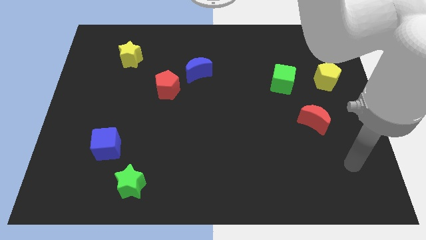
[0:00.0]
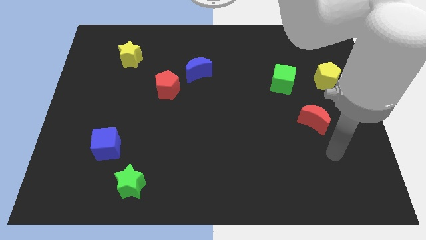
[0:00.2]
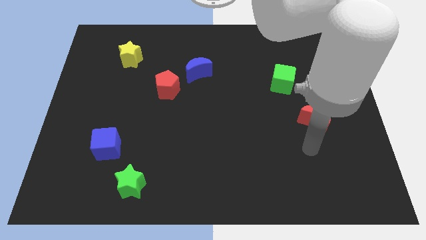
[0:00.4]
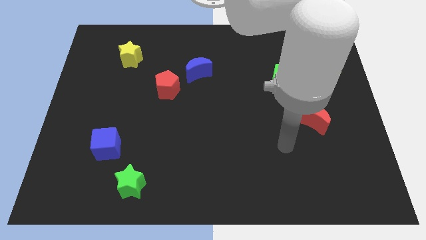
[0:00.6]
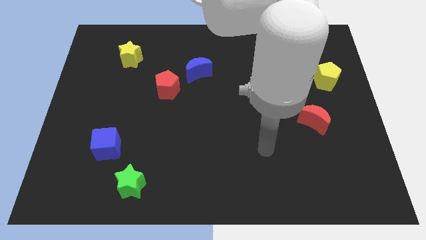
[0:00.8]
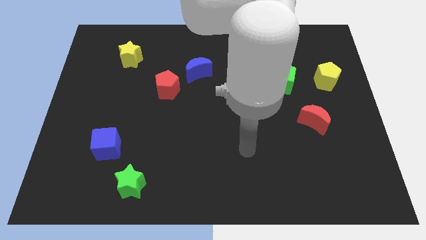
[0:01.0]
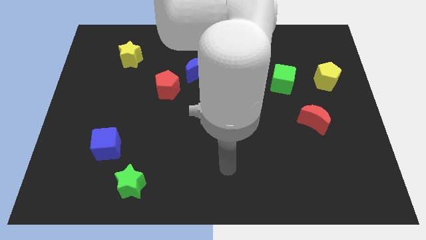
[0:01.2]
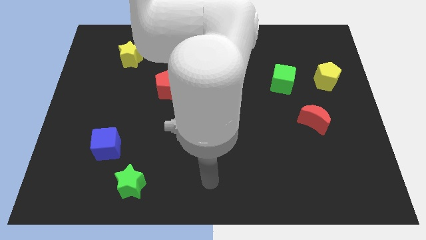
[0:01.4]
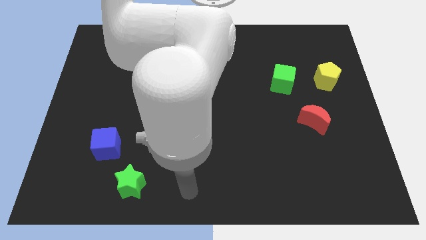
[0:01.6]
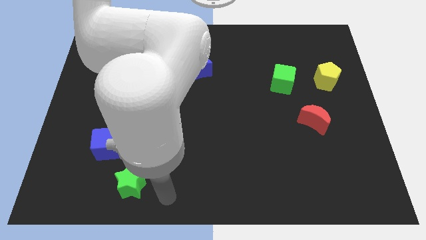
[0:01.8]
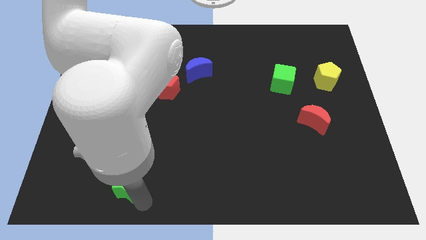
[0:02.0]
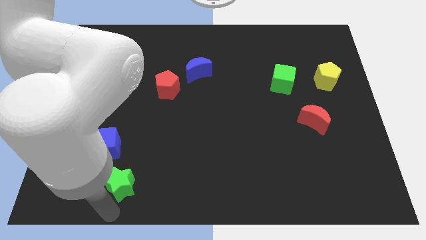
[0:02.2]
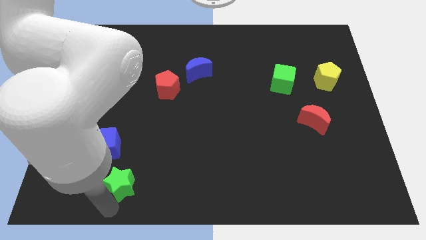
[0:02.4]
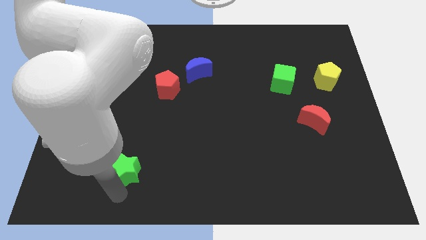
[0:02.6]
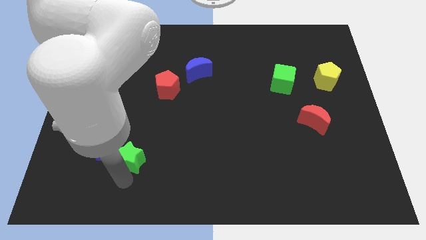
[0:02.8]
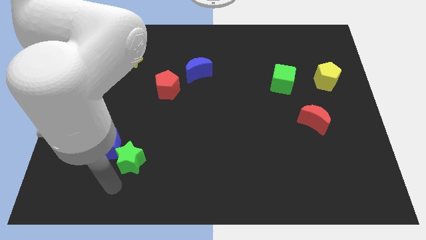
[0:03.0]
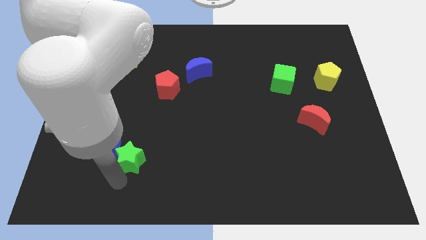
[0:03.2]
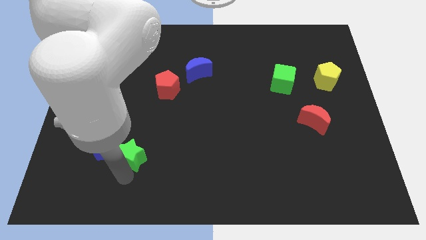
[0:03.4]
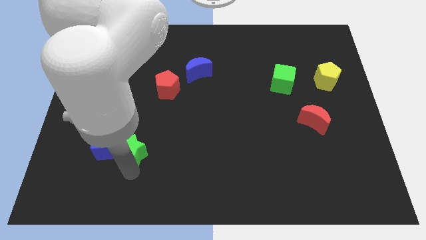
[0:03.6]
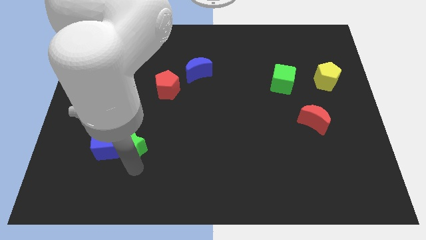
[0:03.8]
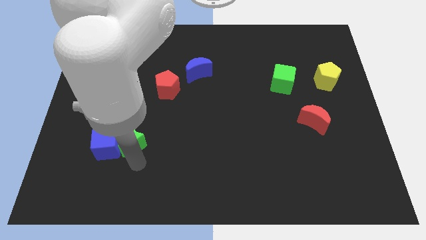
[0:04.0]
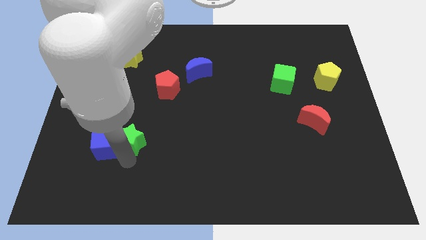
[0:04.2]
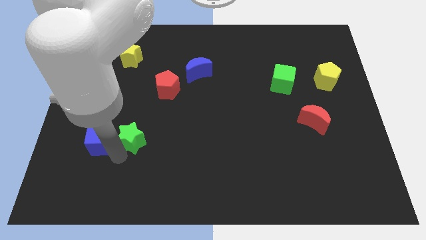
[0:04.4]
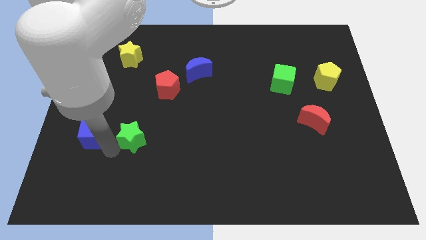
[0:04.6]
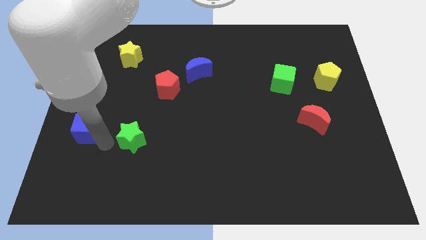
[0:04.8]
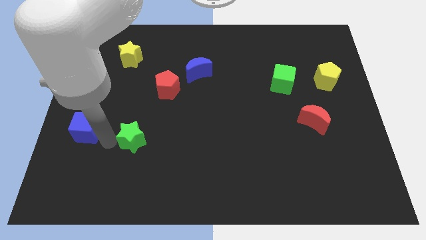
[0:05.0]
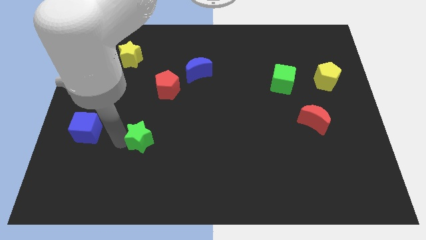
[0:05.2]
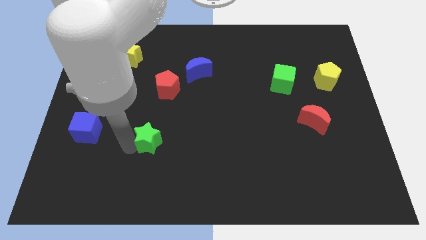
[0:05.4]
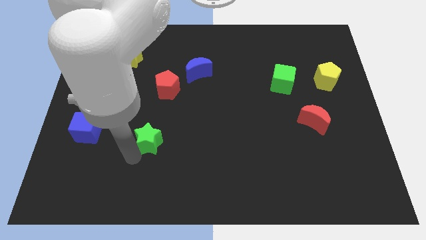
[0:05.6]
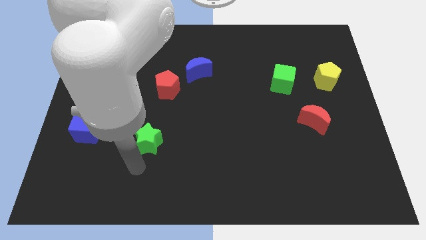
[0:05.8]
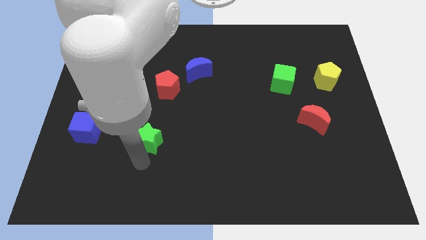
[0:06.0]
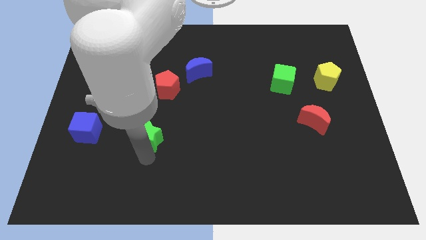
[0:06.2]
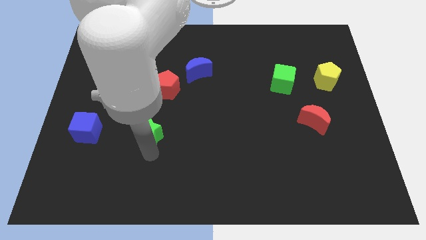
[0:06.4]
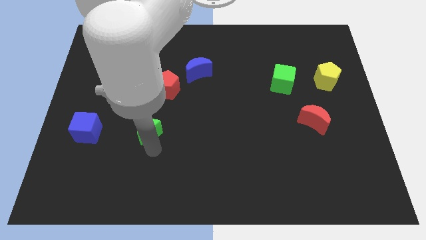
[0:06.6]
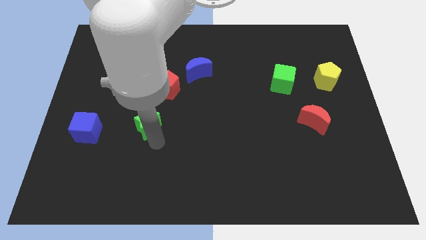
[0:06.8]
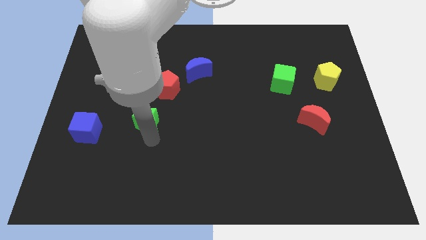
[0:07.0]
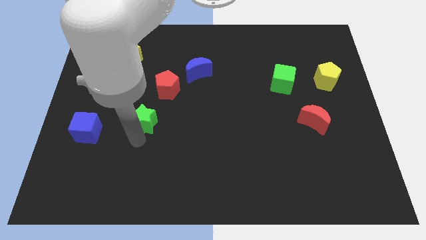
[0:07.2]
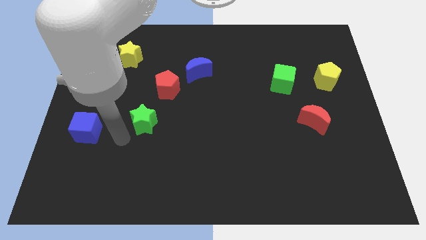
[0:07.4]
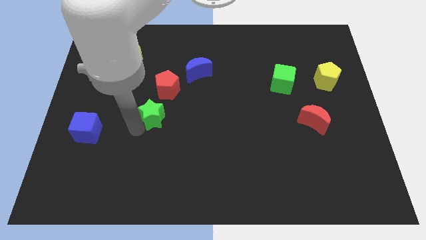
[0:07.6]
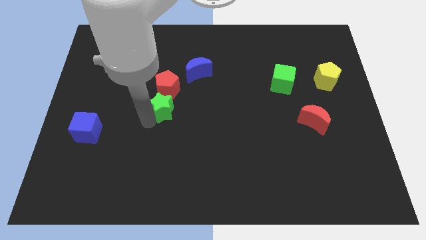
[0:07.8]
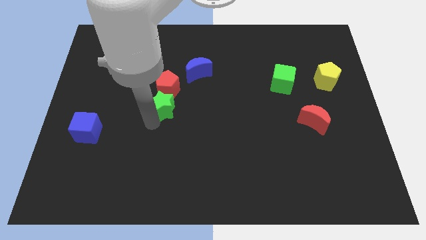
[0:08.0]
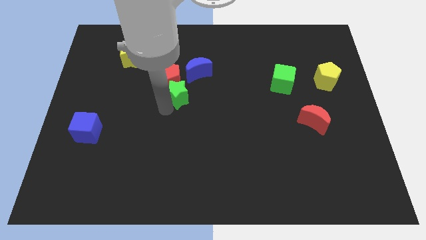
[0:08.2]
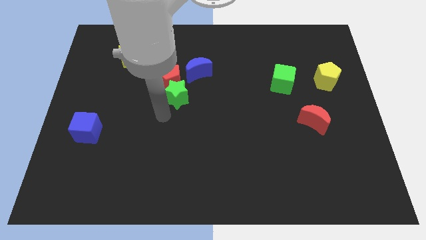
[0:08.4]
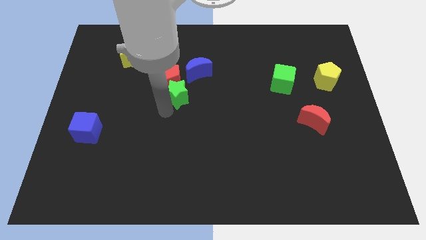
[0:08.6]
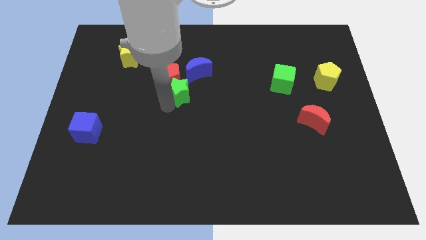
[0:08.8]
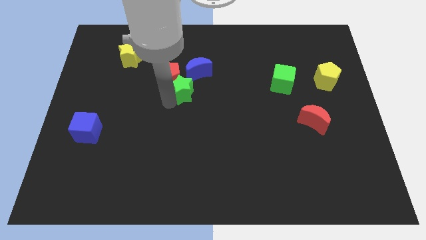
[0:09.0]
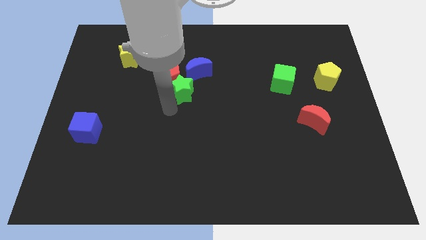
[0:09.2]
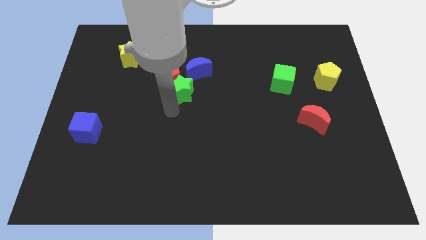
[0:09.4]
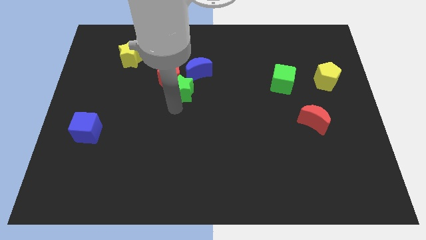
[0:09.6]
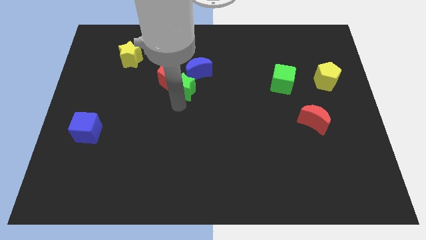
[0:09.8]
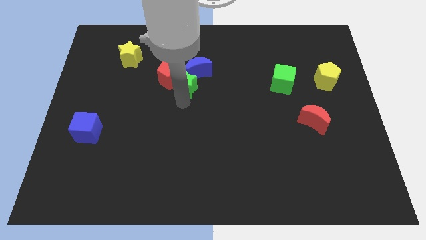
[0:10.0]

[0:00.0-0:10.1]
move the green star next to the blue moon

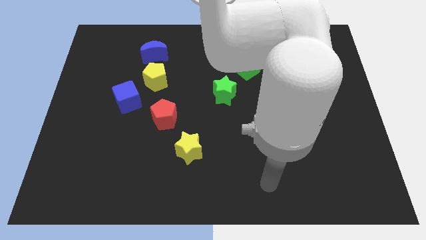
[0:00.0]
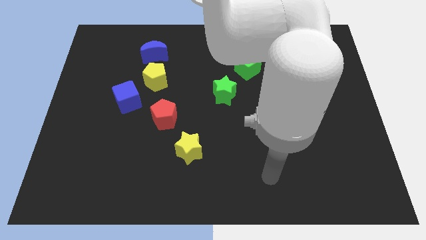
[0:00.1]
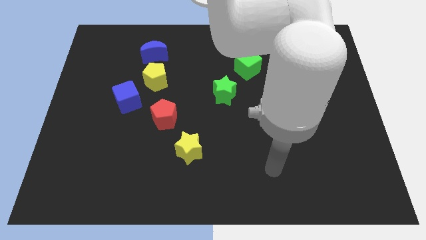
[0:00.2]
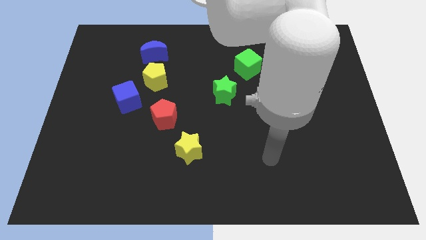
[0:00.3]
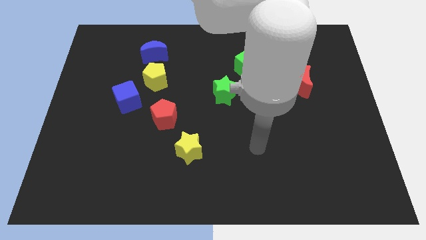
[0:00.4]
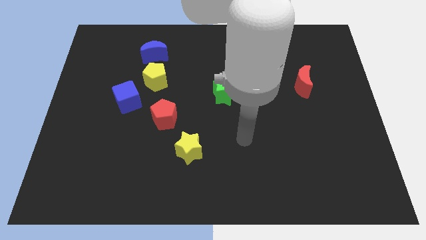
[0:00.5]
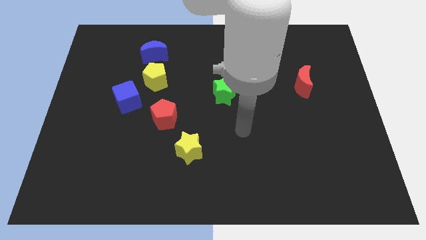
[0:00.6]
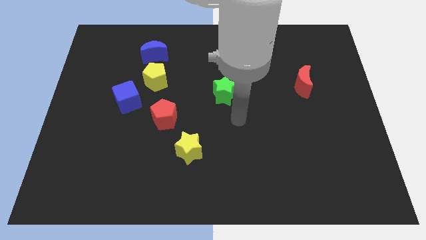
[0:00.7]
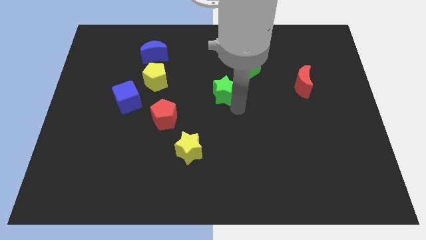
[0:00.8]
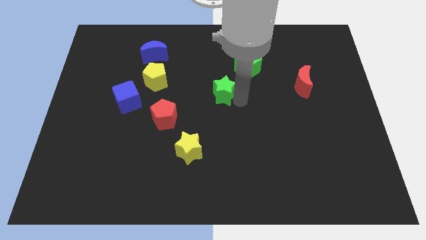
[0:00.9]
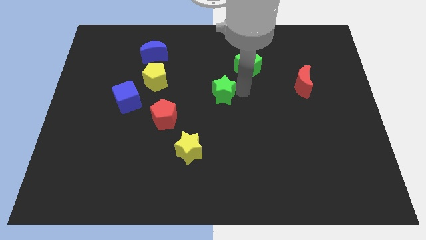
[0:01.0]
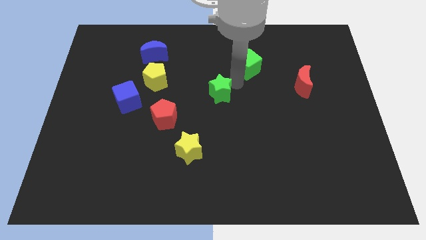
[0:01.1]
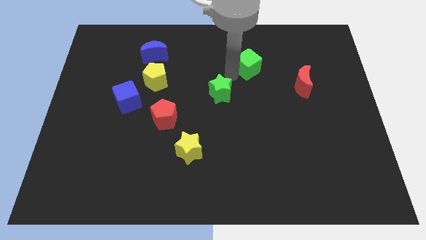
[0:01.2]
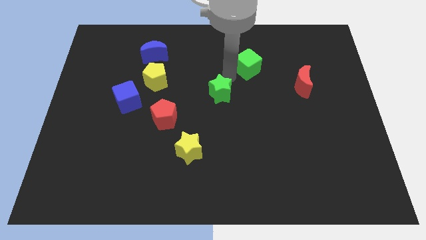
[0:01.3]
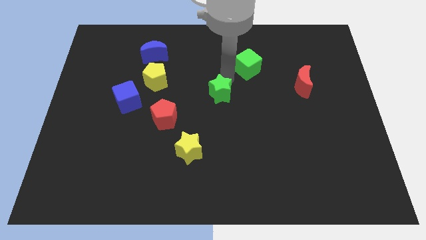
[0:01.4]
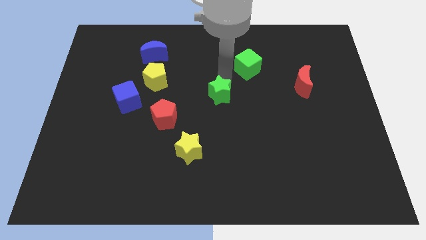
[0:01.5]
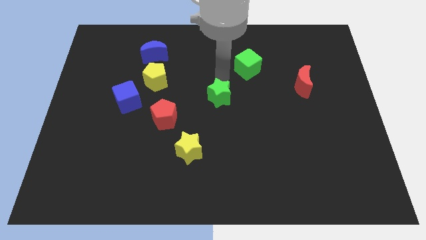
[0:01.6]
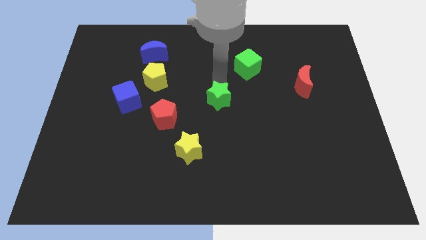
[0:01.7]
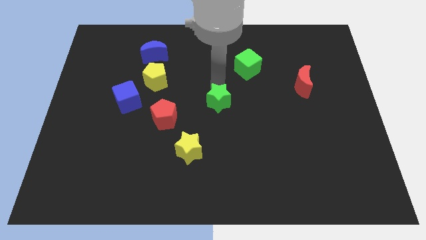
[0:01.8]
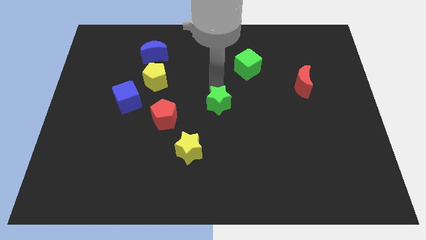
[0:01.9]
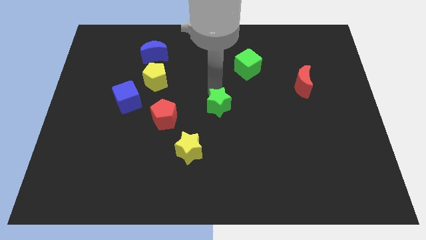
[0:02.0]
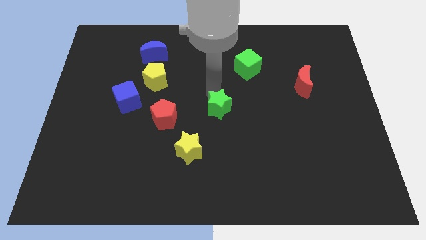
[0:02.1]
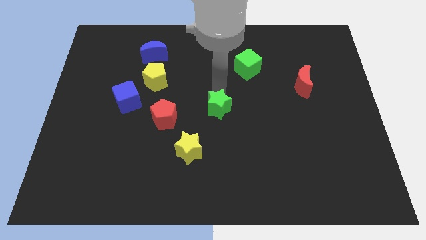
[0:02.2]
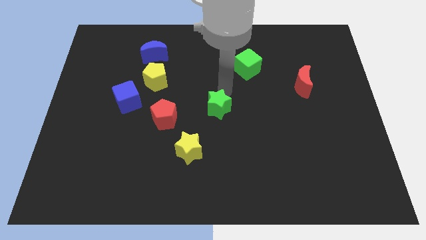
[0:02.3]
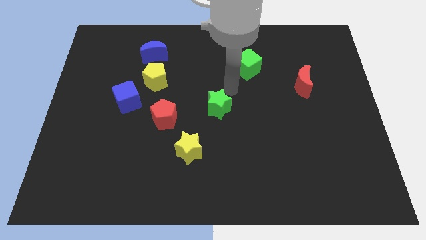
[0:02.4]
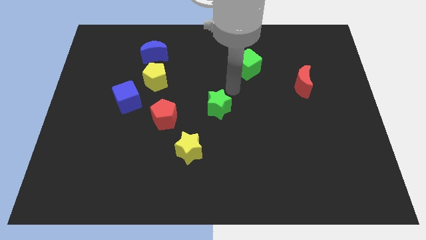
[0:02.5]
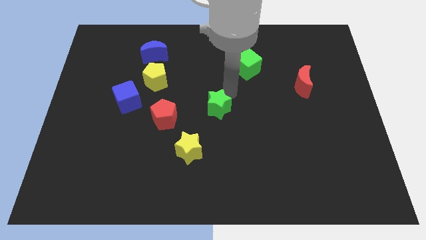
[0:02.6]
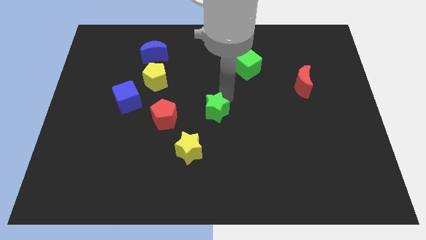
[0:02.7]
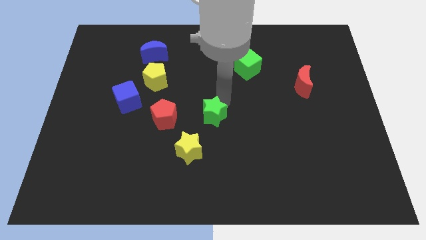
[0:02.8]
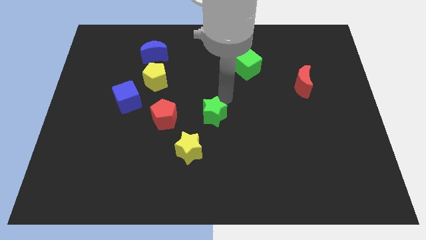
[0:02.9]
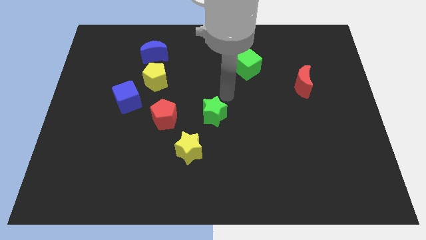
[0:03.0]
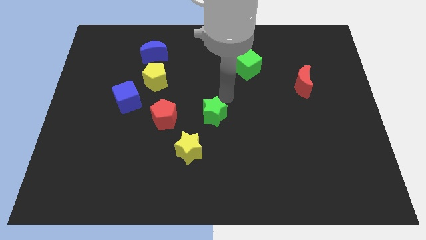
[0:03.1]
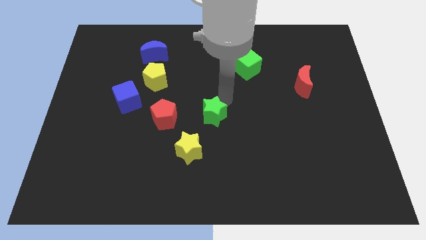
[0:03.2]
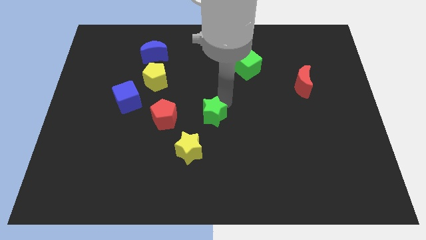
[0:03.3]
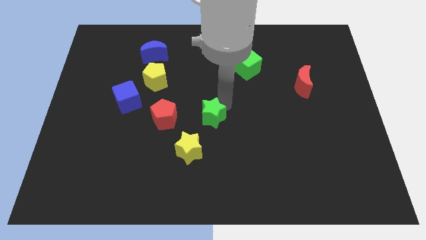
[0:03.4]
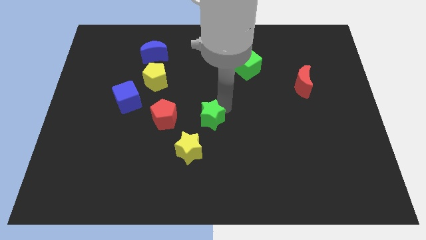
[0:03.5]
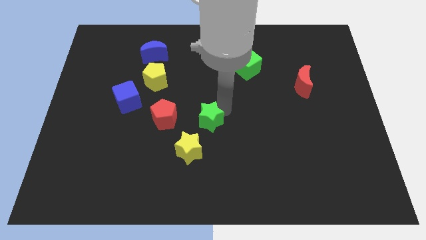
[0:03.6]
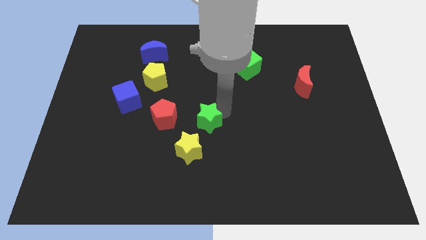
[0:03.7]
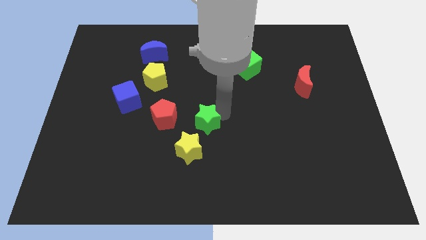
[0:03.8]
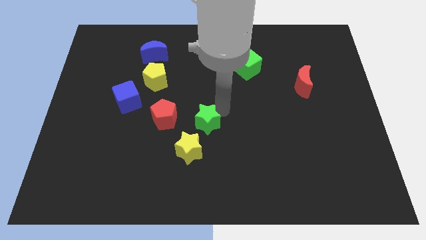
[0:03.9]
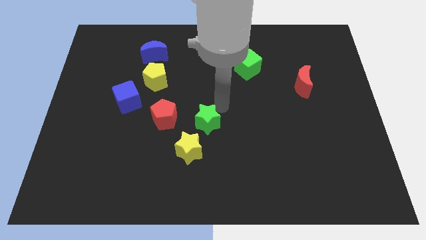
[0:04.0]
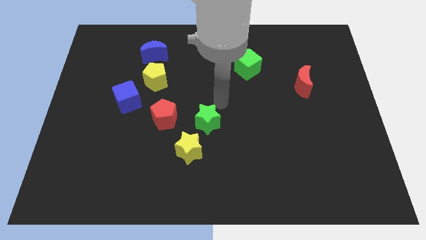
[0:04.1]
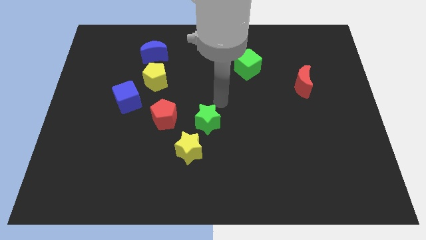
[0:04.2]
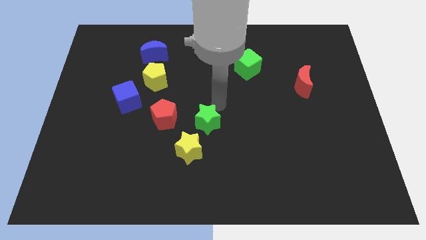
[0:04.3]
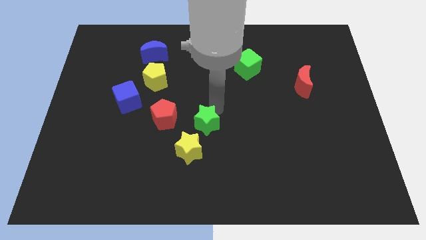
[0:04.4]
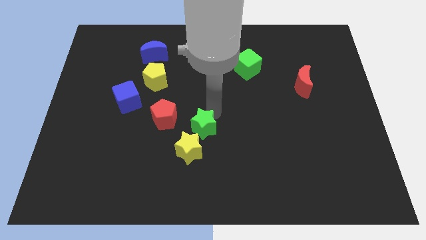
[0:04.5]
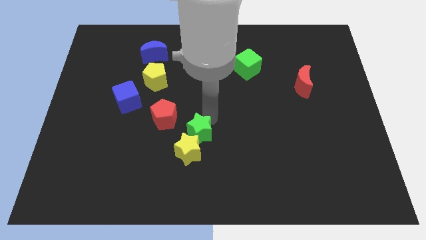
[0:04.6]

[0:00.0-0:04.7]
slide the green star towards the yellow star
